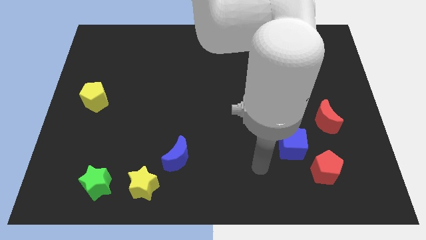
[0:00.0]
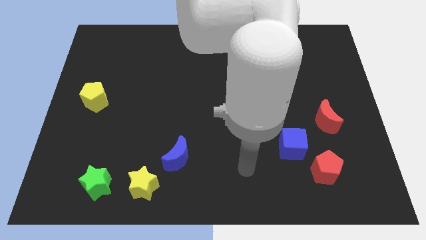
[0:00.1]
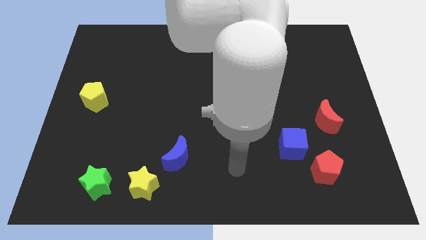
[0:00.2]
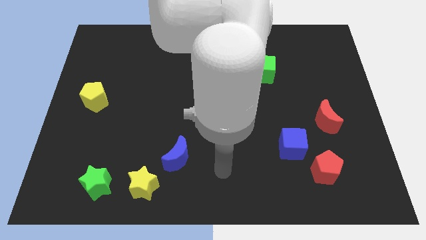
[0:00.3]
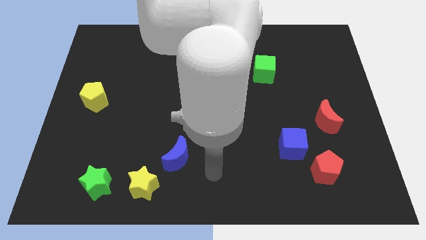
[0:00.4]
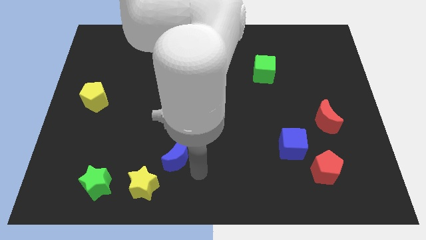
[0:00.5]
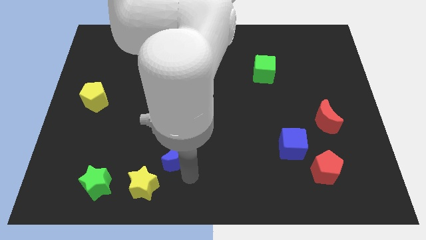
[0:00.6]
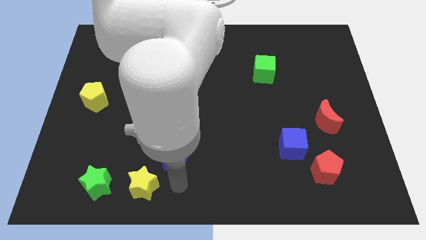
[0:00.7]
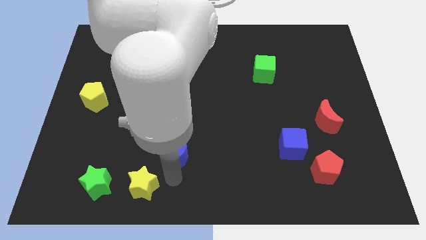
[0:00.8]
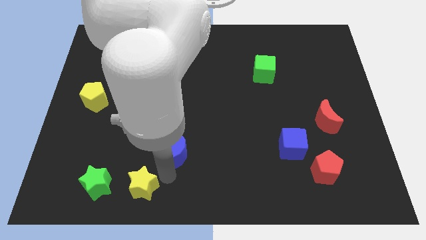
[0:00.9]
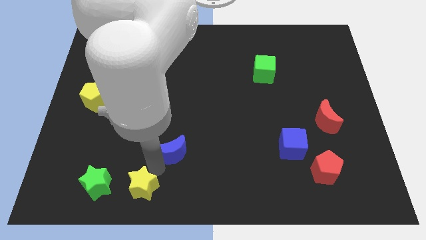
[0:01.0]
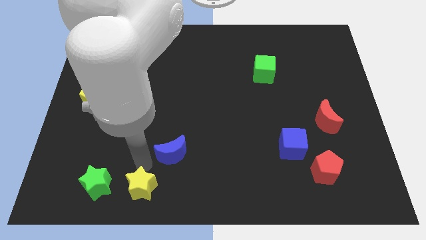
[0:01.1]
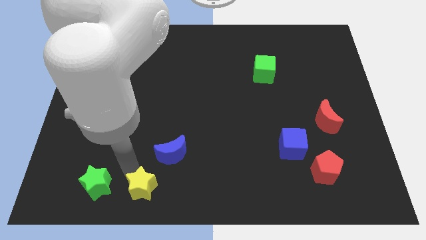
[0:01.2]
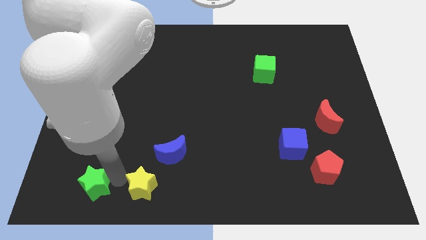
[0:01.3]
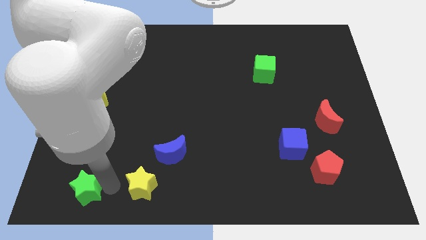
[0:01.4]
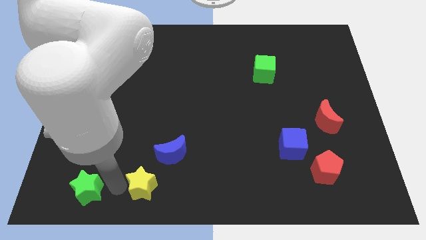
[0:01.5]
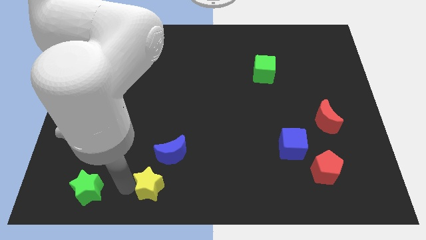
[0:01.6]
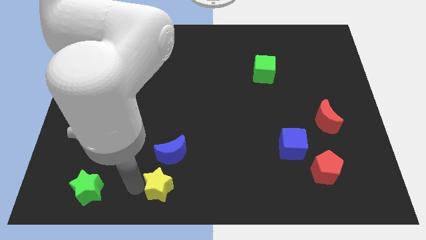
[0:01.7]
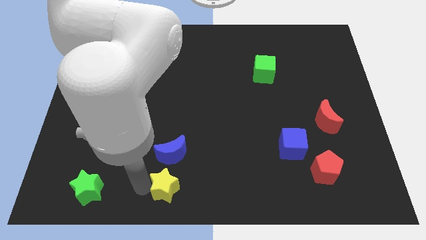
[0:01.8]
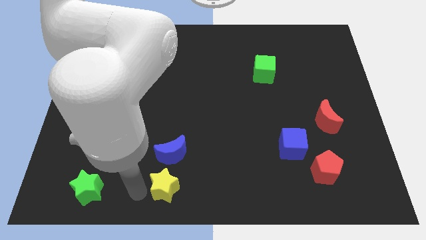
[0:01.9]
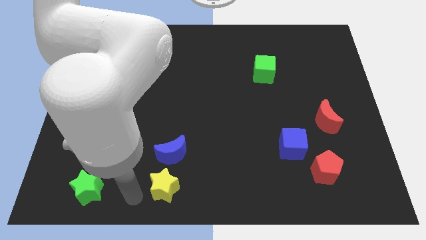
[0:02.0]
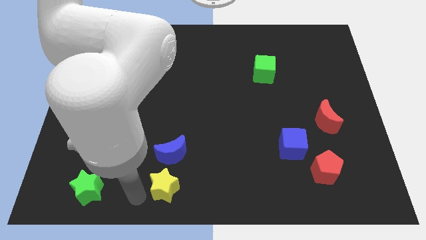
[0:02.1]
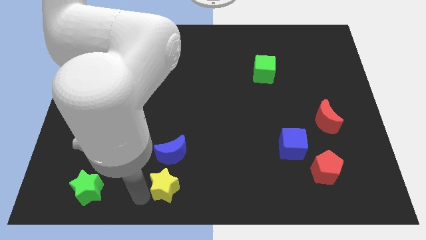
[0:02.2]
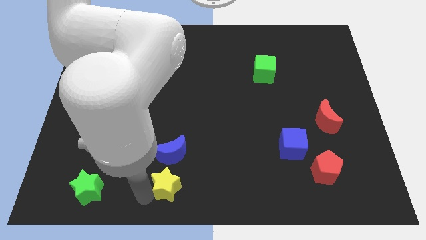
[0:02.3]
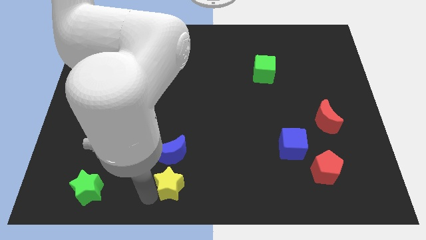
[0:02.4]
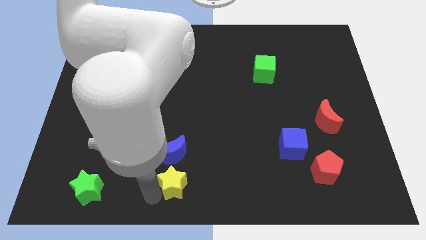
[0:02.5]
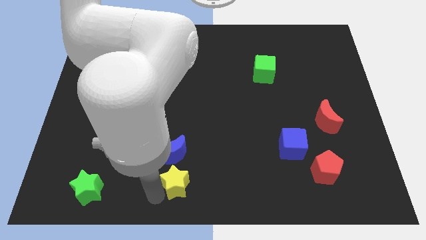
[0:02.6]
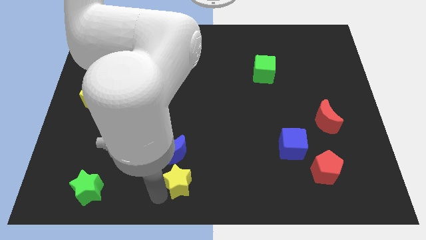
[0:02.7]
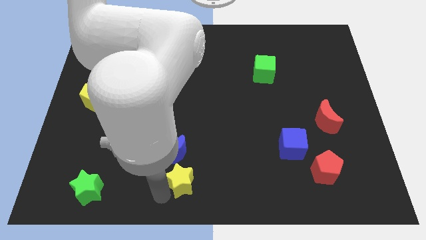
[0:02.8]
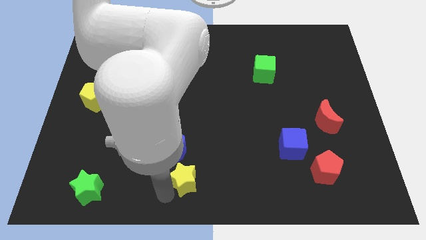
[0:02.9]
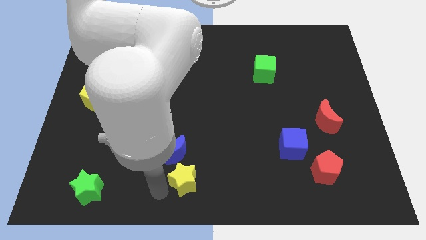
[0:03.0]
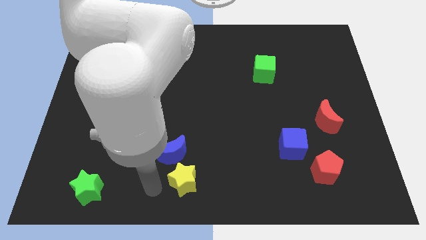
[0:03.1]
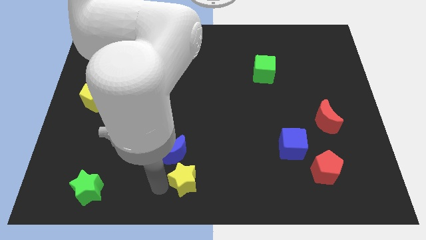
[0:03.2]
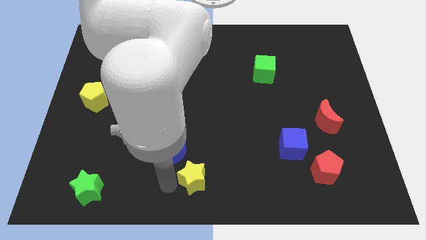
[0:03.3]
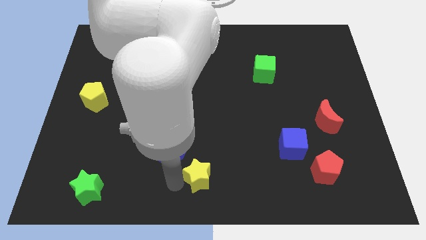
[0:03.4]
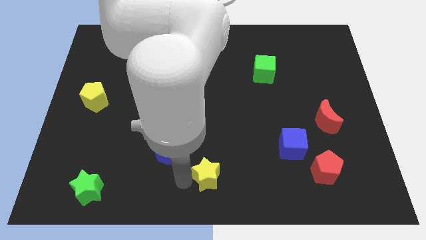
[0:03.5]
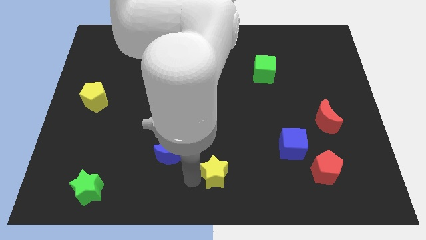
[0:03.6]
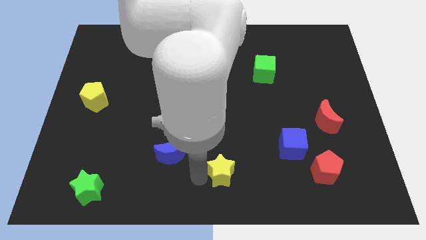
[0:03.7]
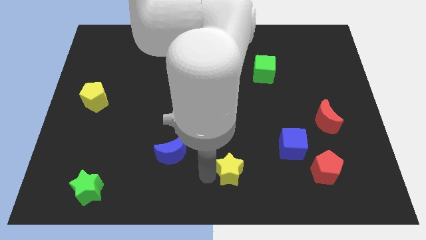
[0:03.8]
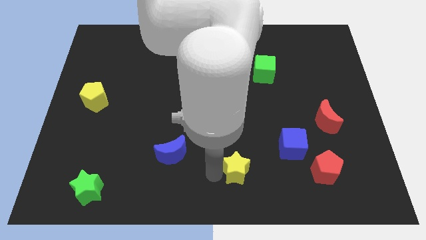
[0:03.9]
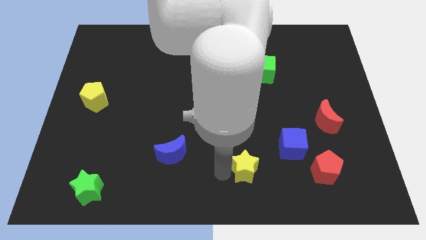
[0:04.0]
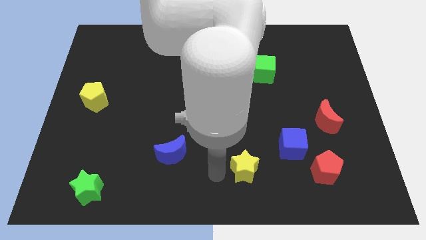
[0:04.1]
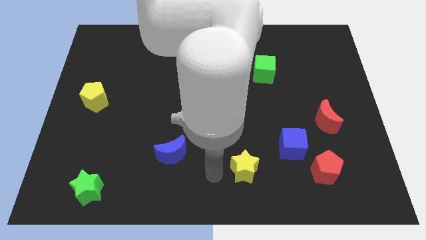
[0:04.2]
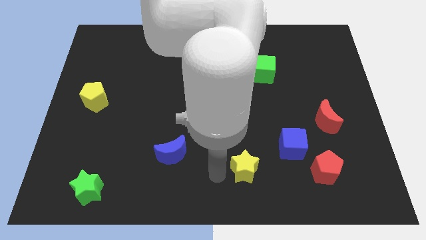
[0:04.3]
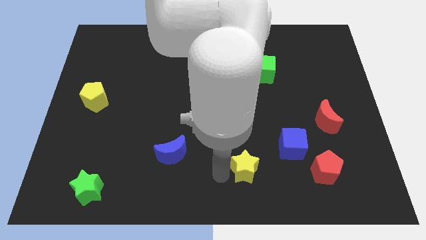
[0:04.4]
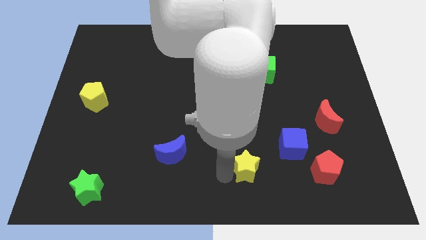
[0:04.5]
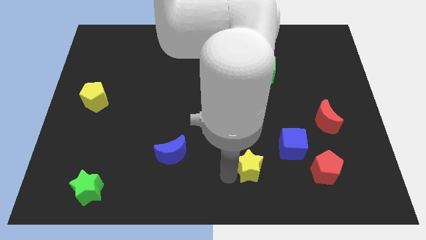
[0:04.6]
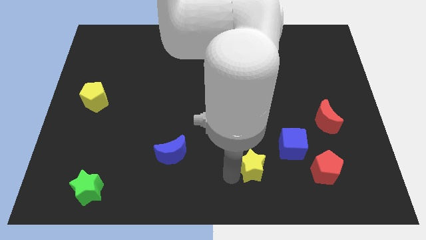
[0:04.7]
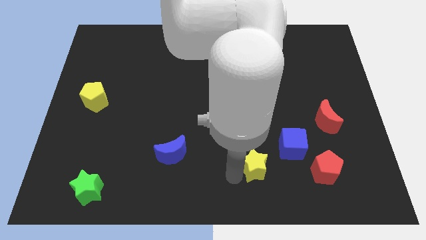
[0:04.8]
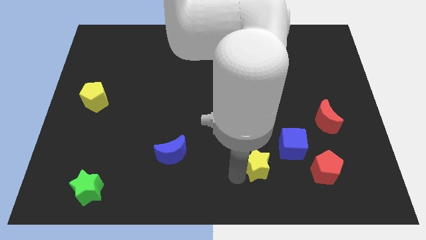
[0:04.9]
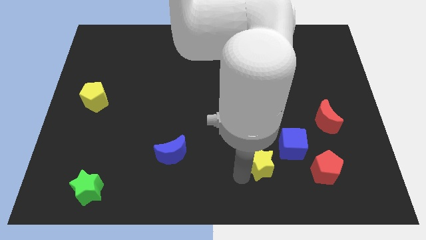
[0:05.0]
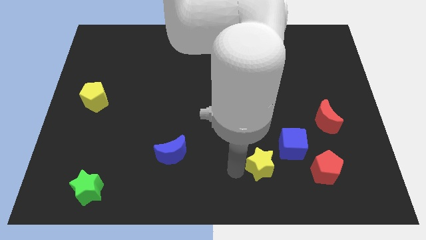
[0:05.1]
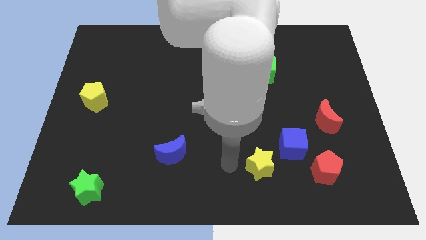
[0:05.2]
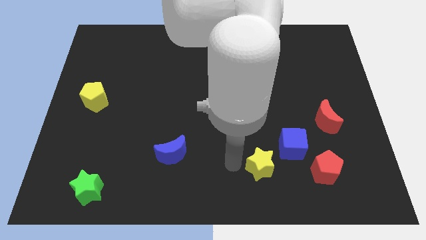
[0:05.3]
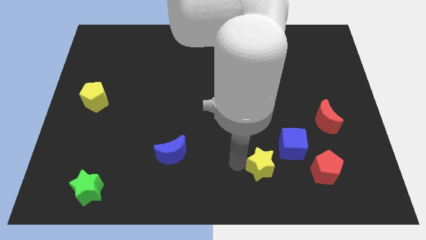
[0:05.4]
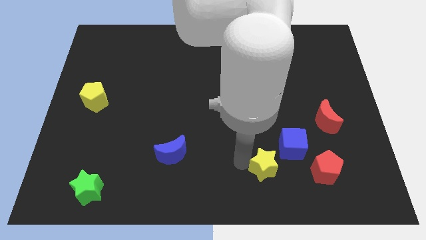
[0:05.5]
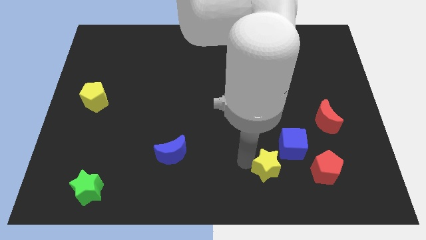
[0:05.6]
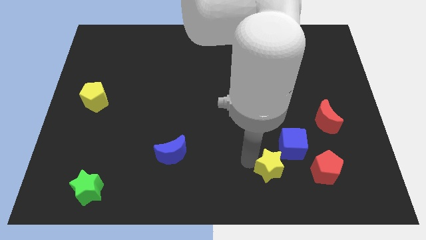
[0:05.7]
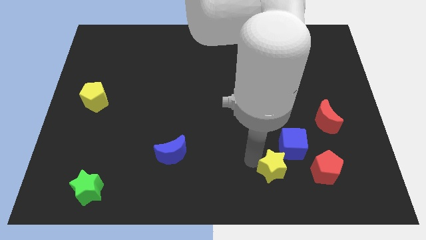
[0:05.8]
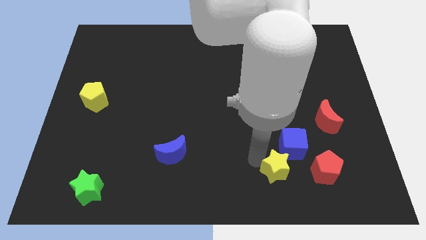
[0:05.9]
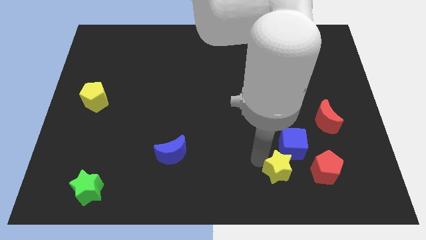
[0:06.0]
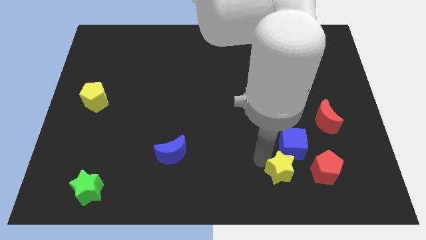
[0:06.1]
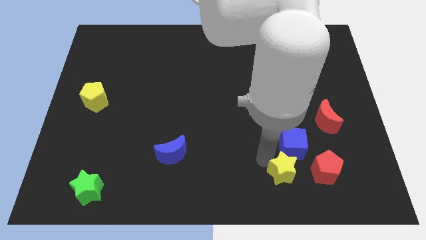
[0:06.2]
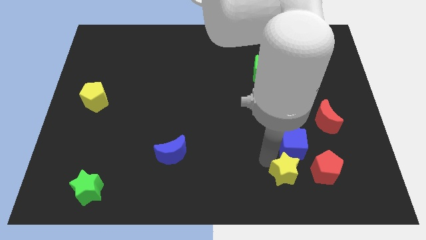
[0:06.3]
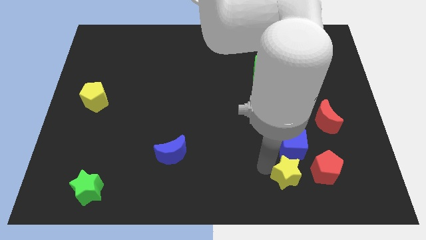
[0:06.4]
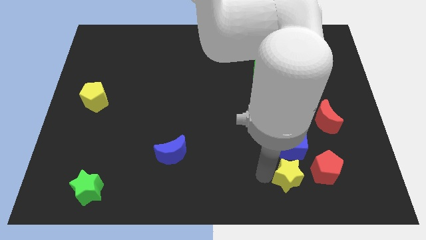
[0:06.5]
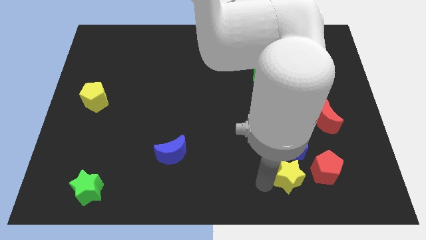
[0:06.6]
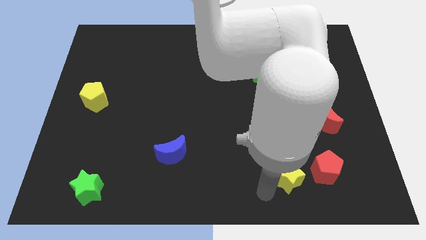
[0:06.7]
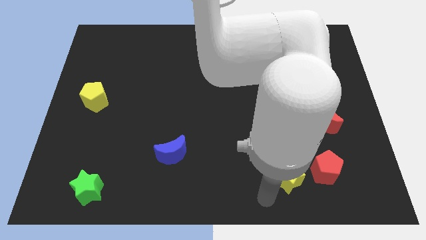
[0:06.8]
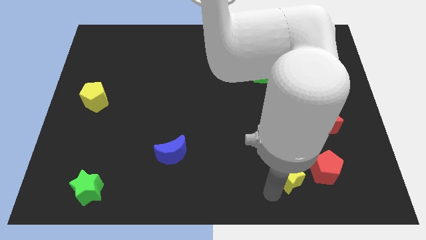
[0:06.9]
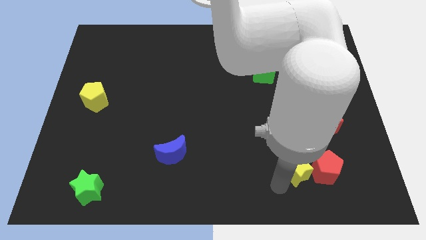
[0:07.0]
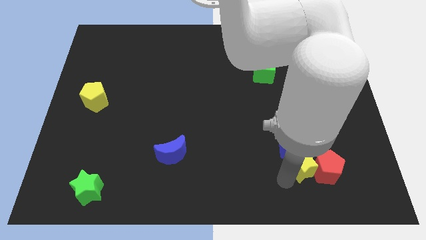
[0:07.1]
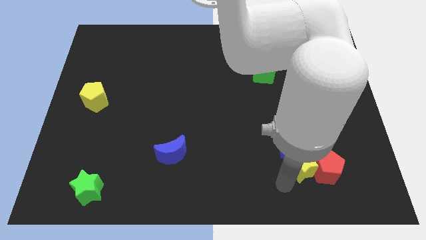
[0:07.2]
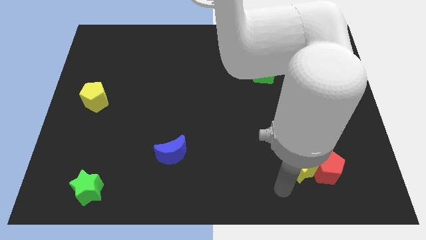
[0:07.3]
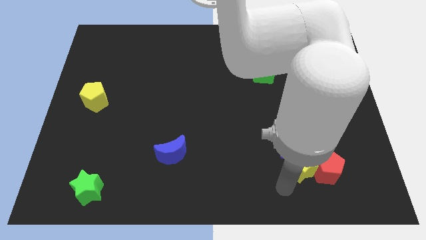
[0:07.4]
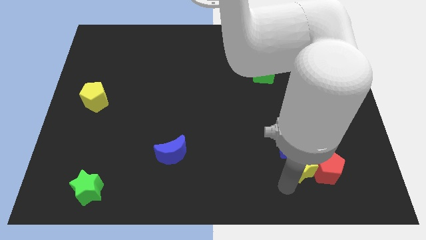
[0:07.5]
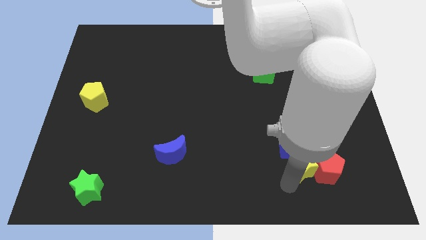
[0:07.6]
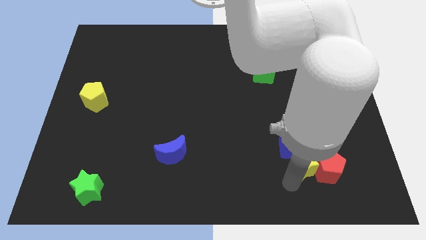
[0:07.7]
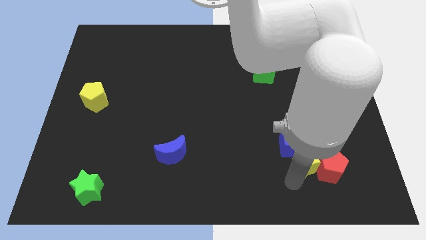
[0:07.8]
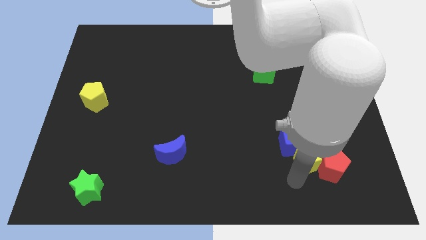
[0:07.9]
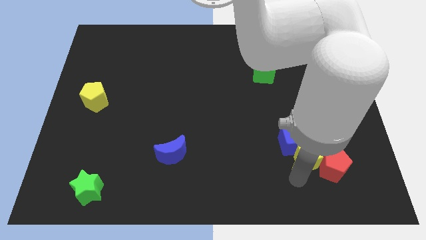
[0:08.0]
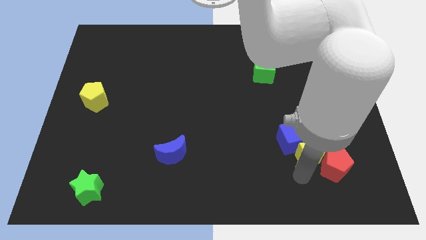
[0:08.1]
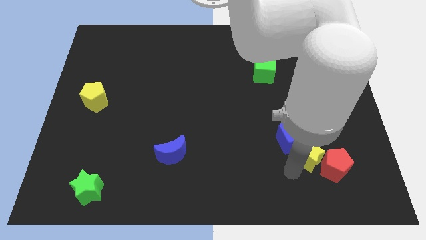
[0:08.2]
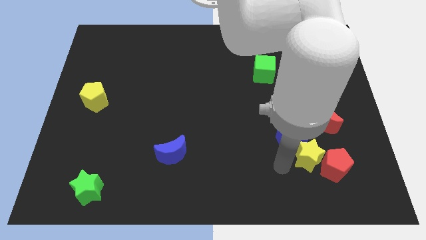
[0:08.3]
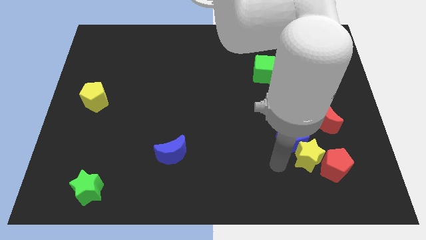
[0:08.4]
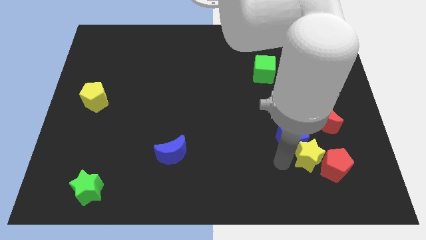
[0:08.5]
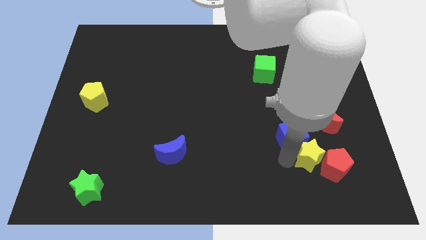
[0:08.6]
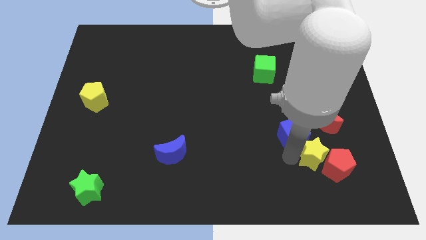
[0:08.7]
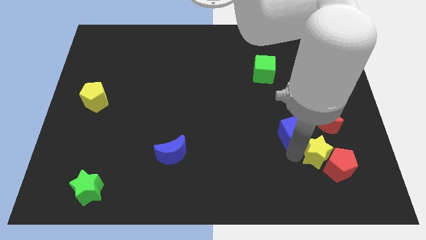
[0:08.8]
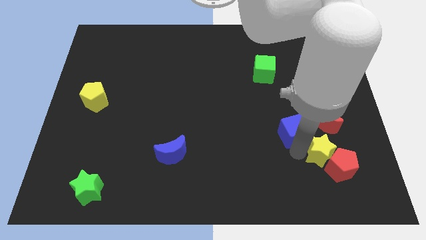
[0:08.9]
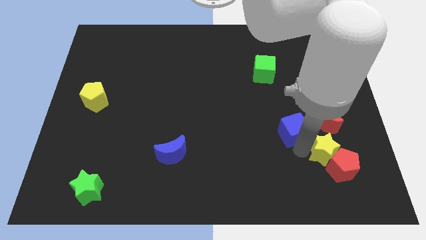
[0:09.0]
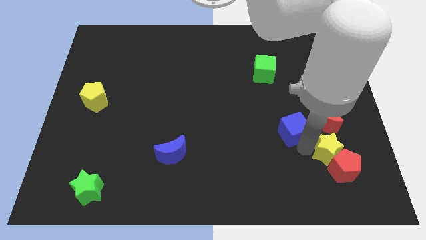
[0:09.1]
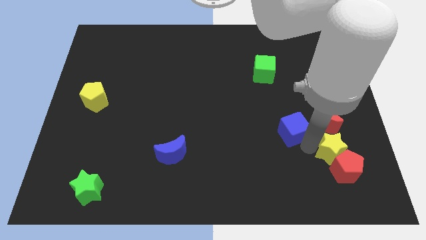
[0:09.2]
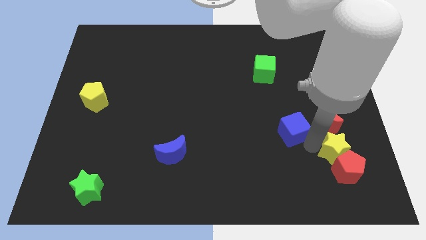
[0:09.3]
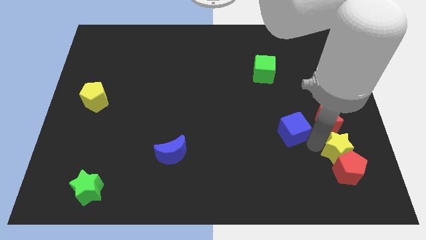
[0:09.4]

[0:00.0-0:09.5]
put the yellow star diagonally up and to the right of the red pentagon
